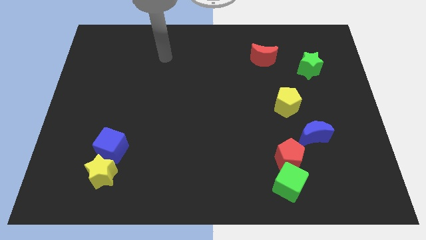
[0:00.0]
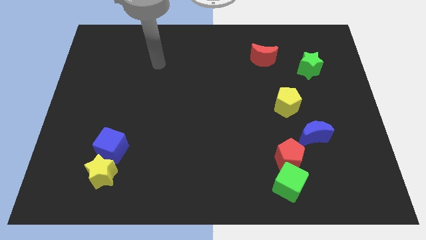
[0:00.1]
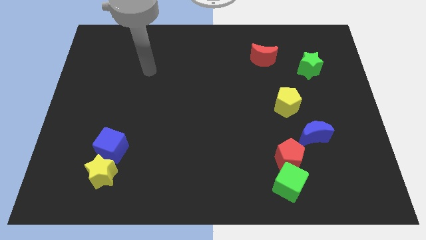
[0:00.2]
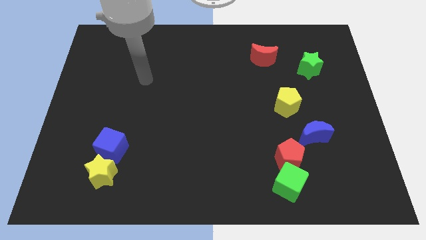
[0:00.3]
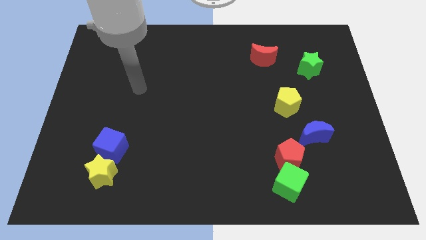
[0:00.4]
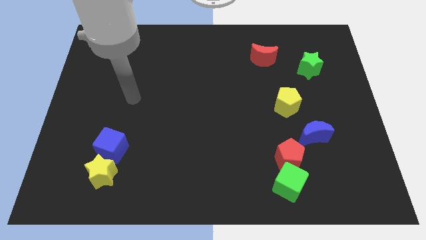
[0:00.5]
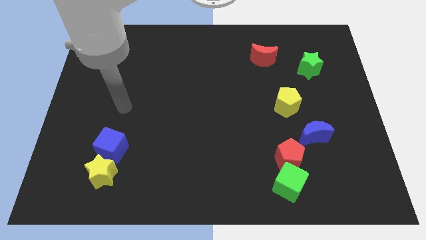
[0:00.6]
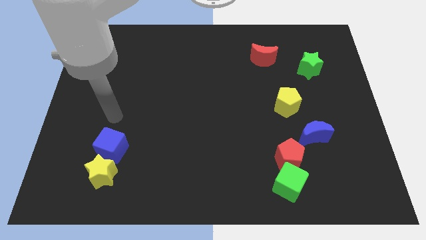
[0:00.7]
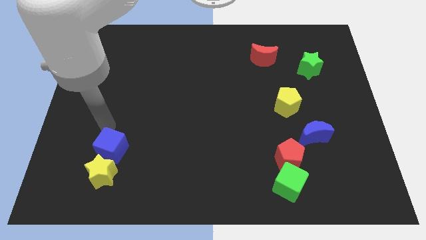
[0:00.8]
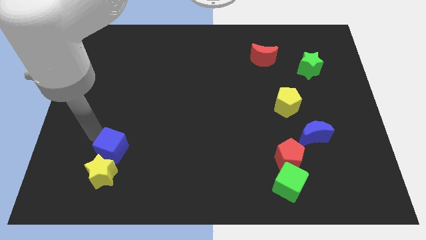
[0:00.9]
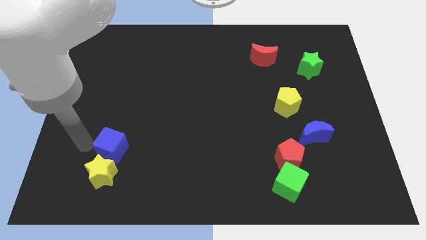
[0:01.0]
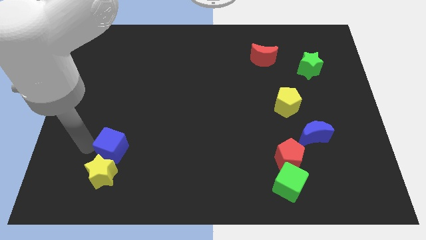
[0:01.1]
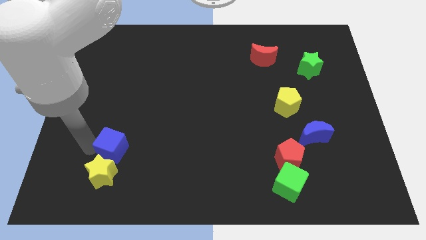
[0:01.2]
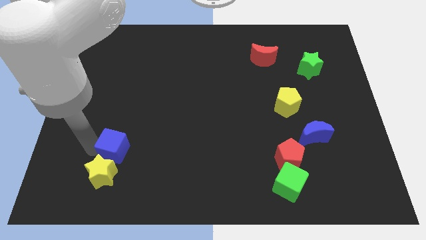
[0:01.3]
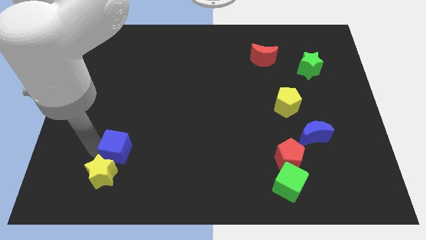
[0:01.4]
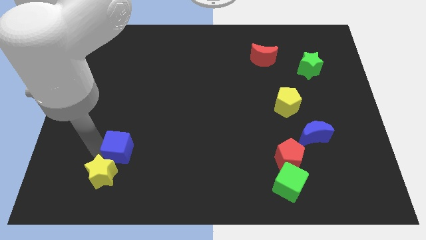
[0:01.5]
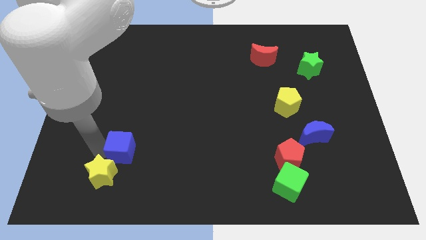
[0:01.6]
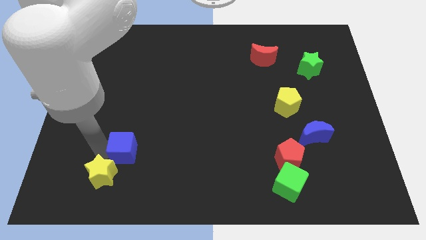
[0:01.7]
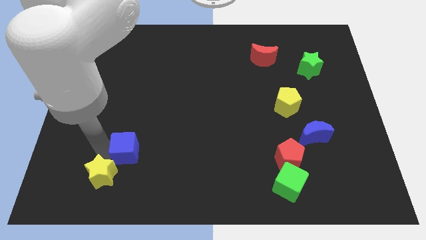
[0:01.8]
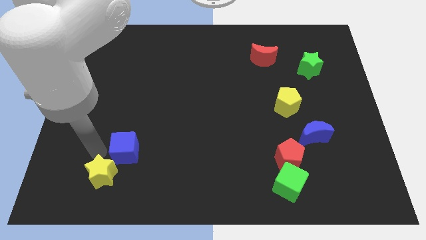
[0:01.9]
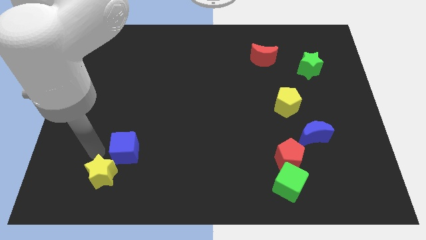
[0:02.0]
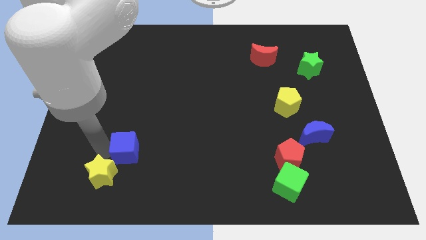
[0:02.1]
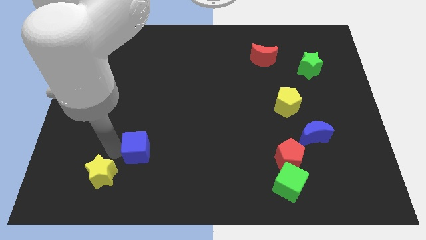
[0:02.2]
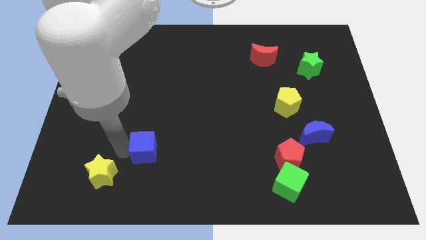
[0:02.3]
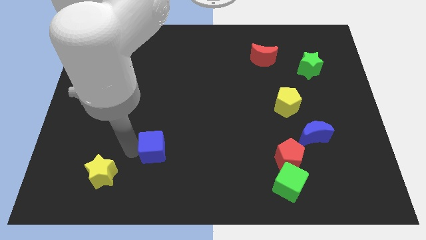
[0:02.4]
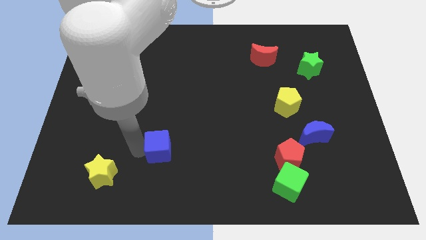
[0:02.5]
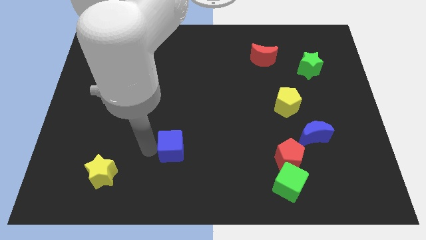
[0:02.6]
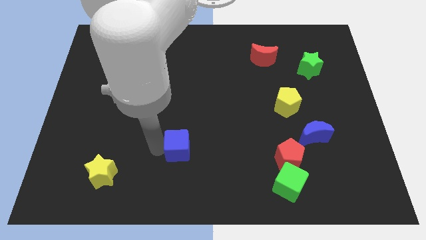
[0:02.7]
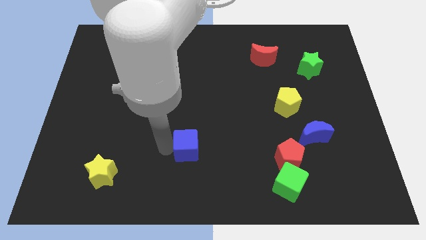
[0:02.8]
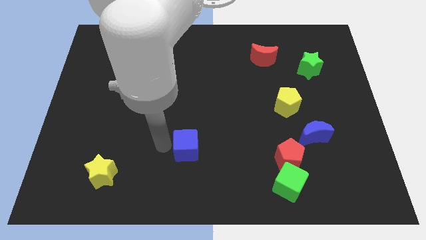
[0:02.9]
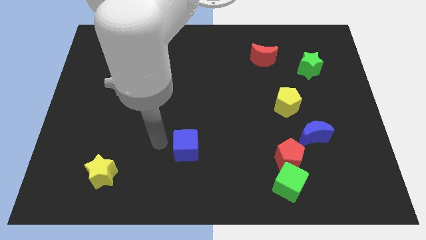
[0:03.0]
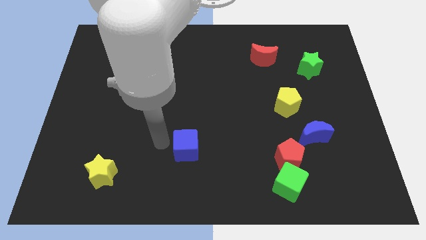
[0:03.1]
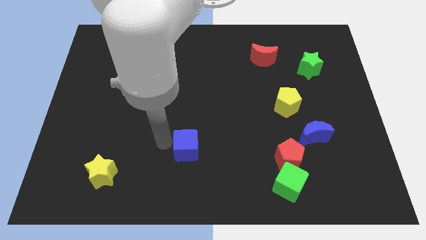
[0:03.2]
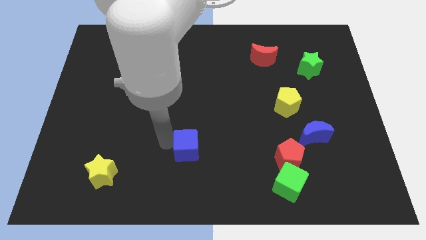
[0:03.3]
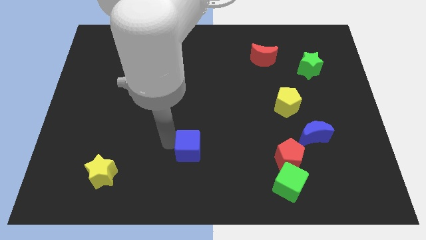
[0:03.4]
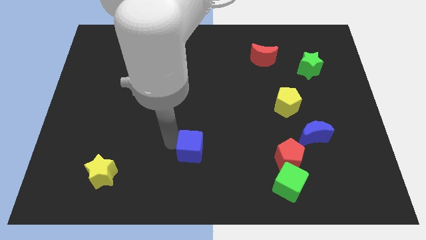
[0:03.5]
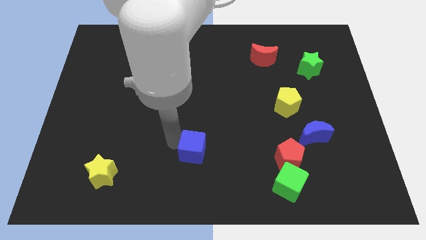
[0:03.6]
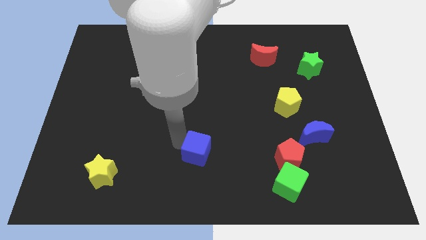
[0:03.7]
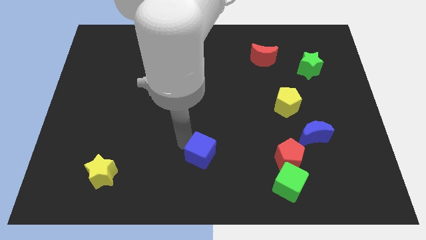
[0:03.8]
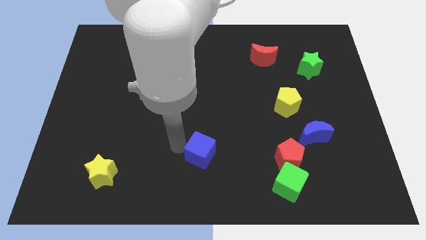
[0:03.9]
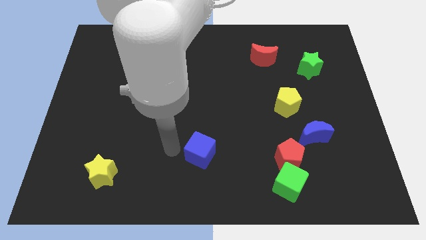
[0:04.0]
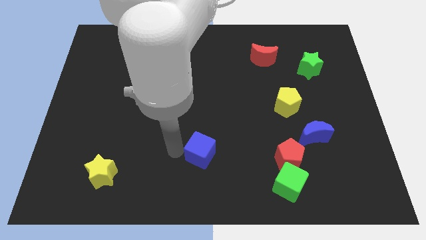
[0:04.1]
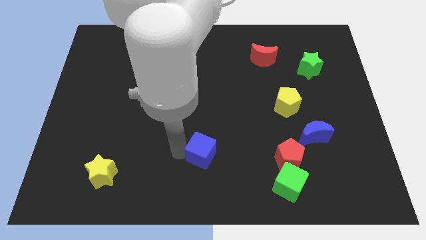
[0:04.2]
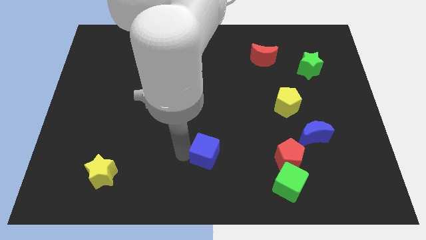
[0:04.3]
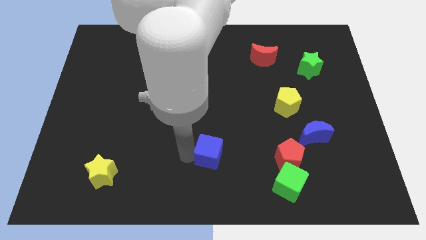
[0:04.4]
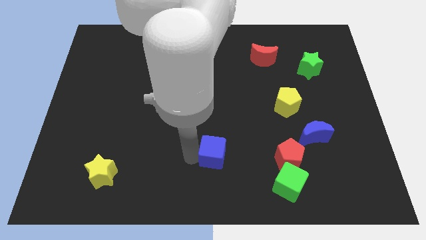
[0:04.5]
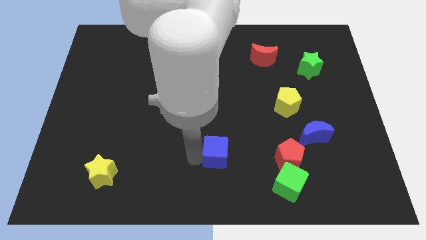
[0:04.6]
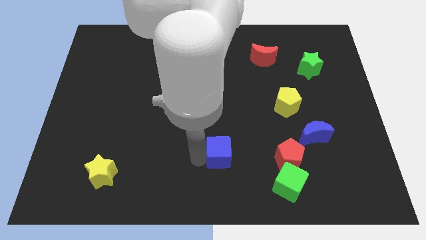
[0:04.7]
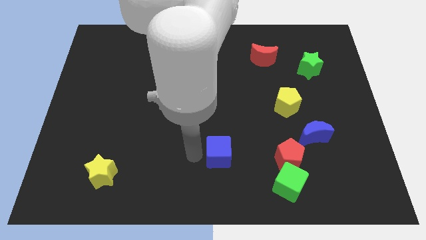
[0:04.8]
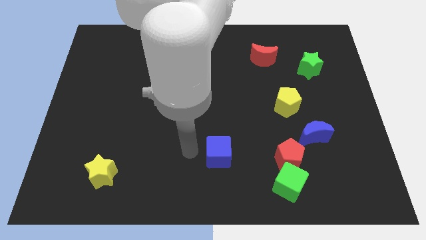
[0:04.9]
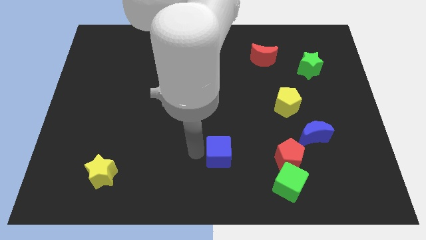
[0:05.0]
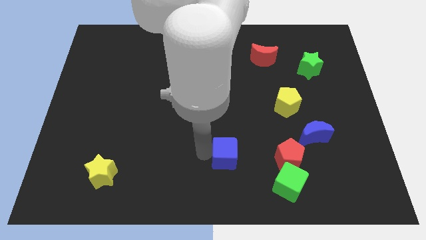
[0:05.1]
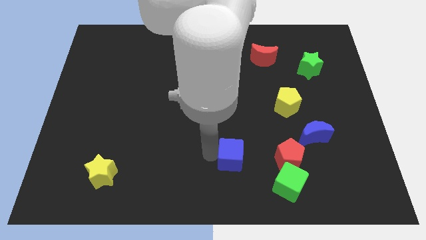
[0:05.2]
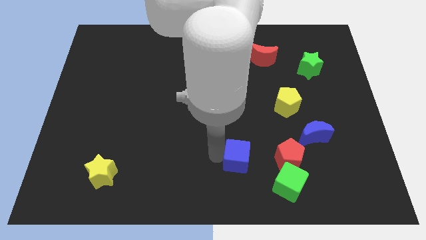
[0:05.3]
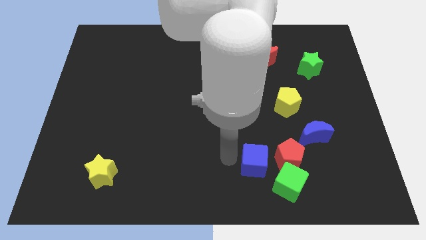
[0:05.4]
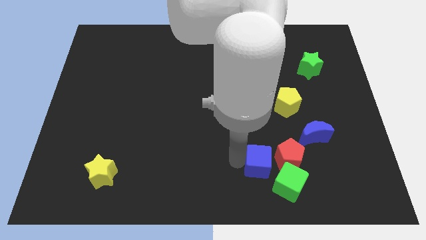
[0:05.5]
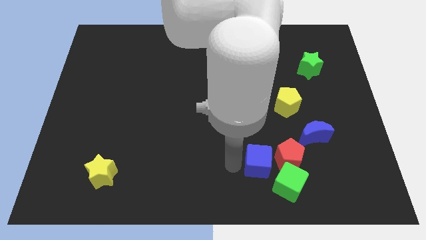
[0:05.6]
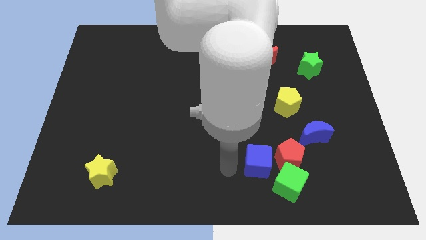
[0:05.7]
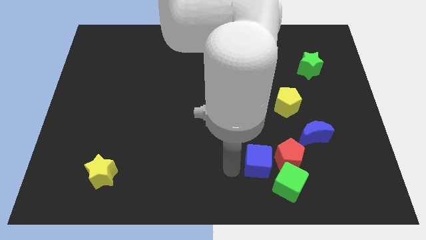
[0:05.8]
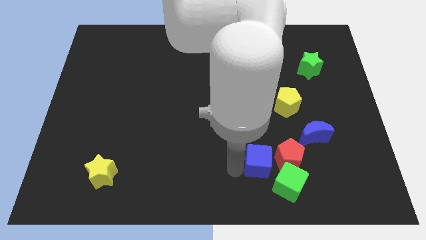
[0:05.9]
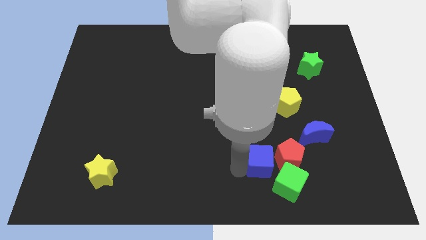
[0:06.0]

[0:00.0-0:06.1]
push the blue cube towards the red pentagon

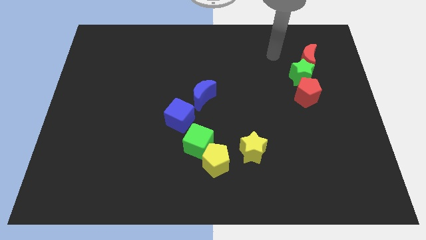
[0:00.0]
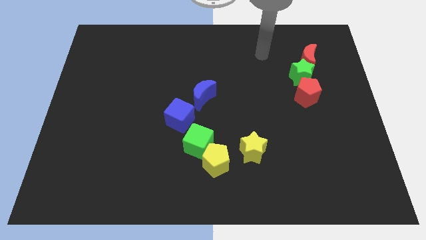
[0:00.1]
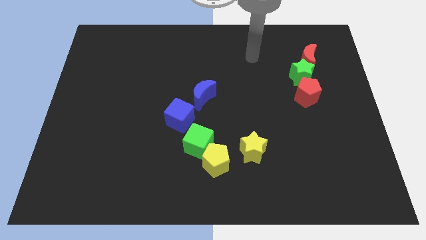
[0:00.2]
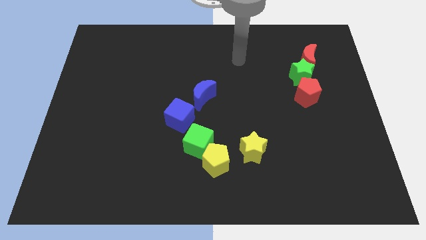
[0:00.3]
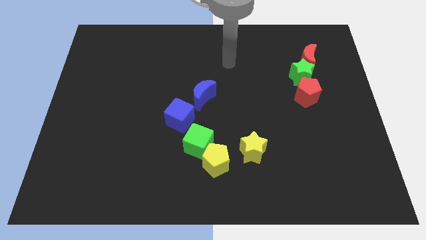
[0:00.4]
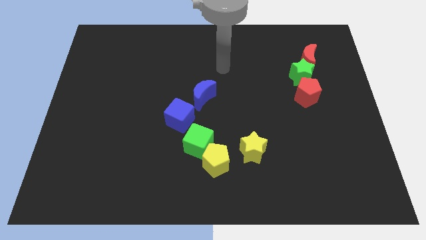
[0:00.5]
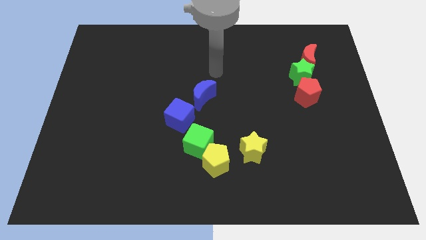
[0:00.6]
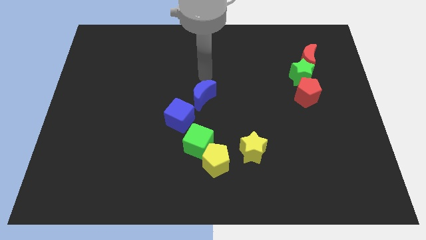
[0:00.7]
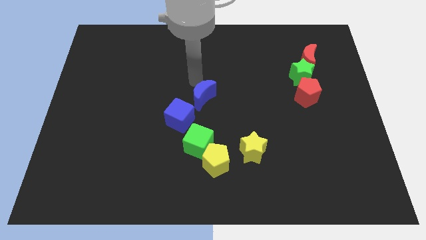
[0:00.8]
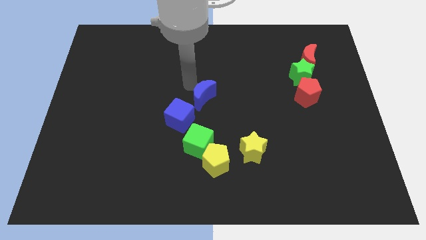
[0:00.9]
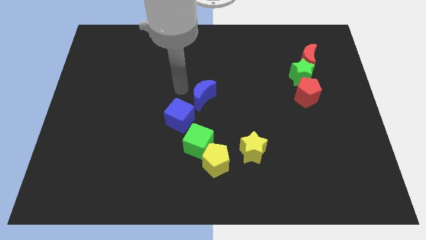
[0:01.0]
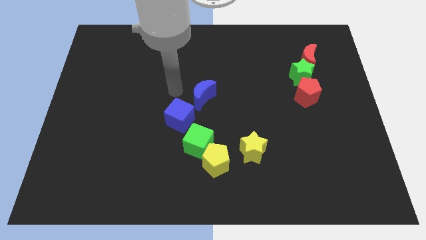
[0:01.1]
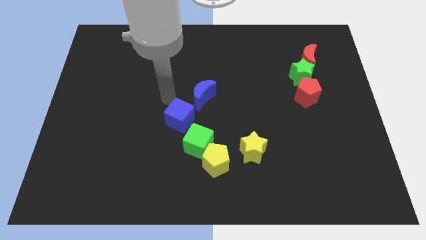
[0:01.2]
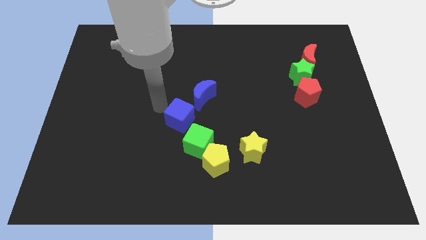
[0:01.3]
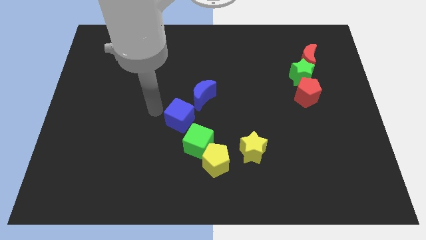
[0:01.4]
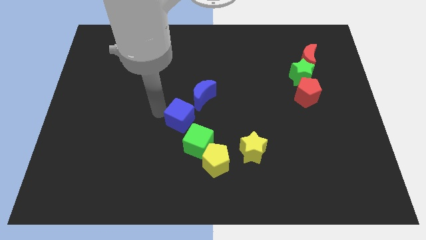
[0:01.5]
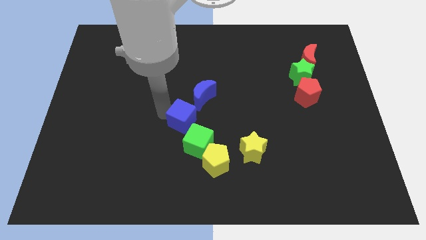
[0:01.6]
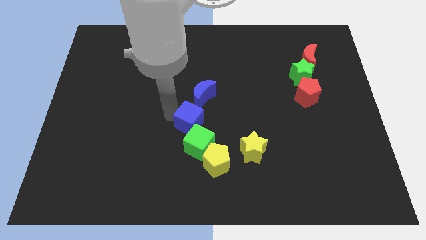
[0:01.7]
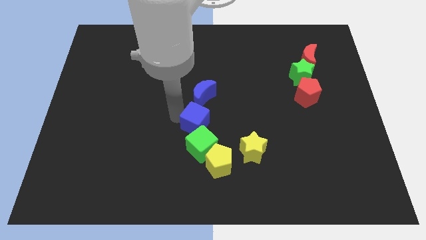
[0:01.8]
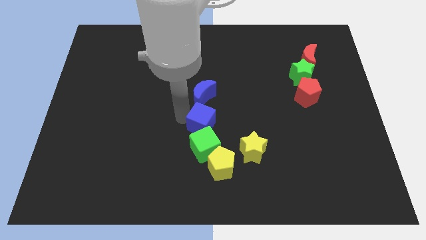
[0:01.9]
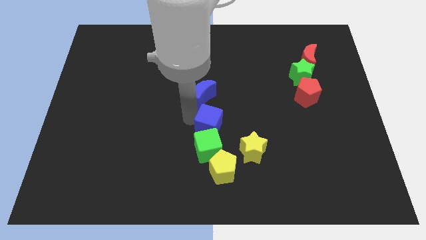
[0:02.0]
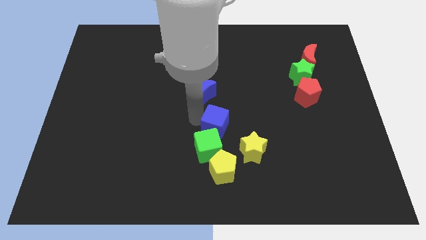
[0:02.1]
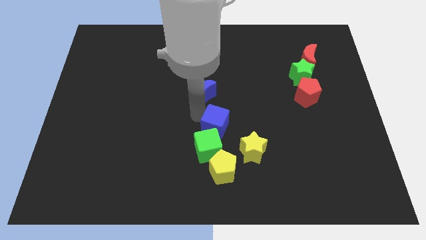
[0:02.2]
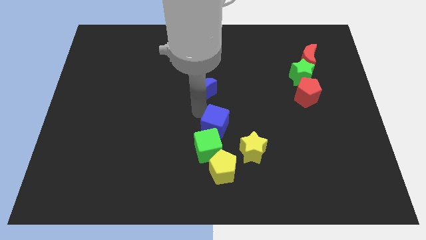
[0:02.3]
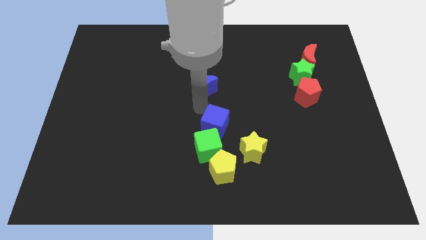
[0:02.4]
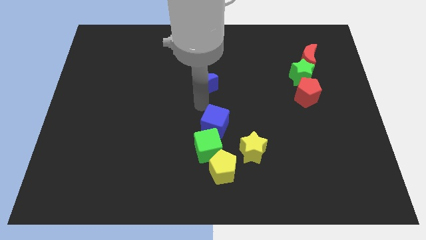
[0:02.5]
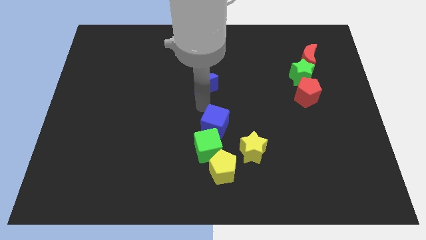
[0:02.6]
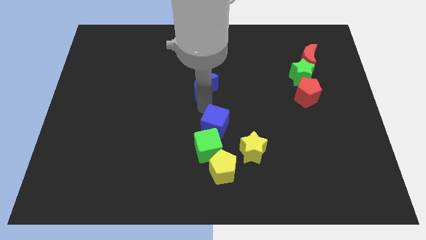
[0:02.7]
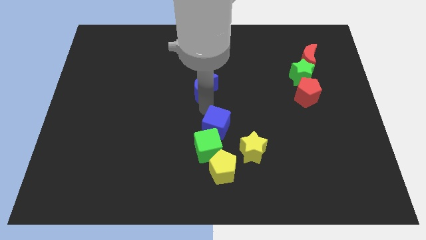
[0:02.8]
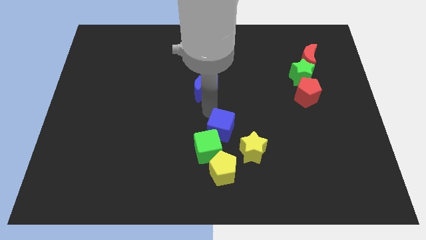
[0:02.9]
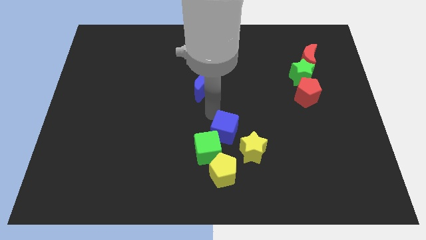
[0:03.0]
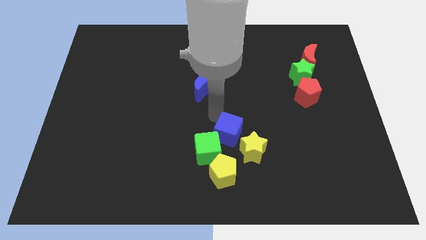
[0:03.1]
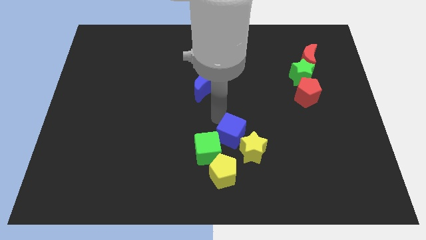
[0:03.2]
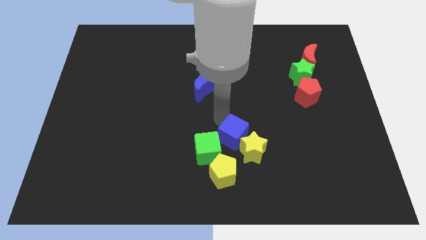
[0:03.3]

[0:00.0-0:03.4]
slide the blue cube to the yellow star
